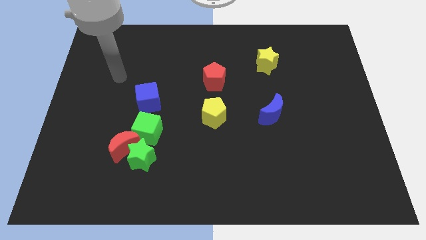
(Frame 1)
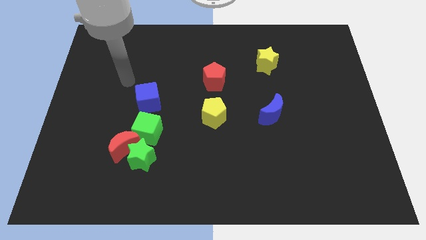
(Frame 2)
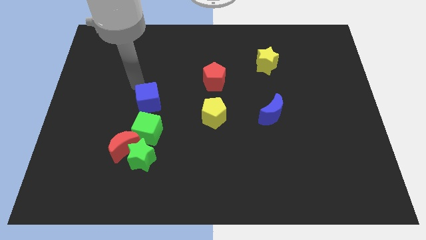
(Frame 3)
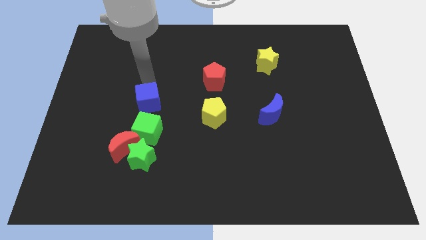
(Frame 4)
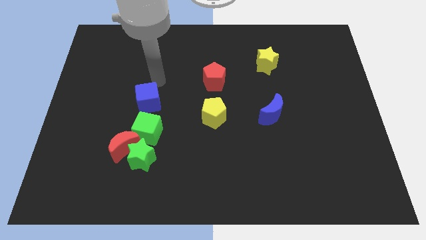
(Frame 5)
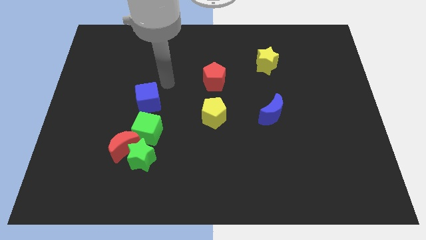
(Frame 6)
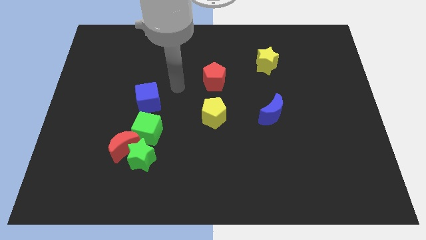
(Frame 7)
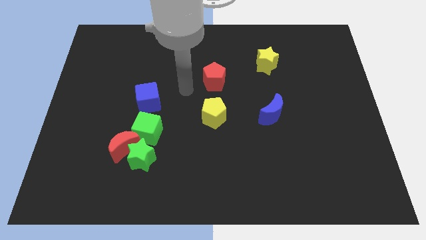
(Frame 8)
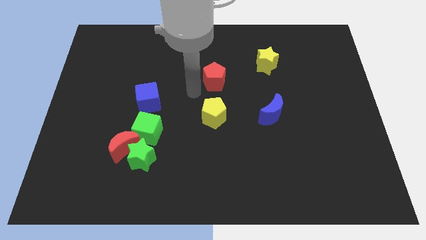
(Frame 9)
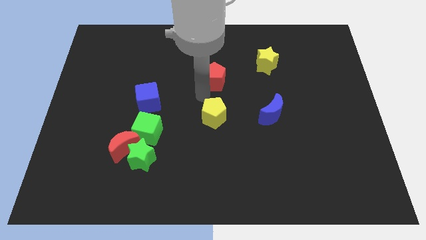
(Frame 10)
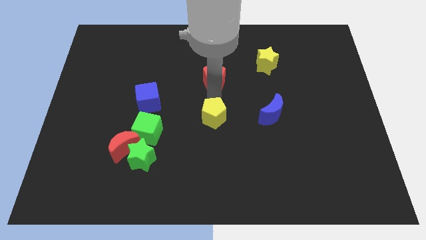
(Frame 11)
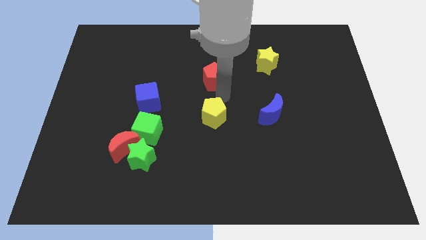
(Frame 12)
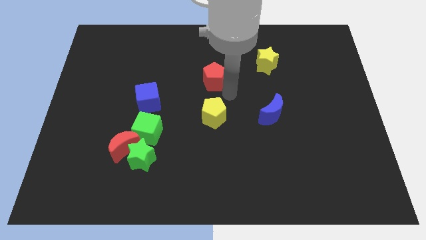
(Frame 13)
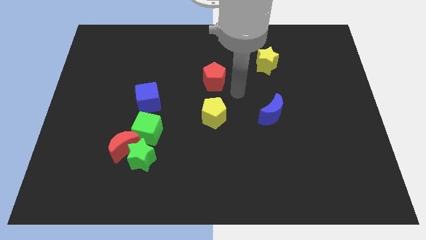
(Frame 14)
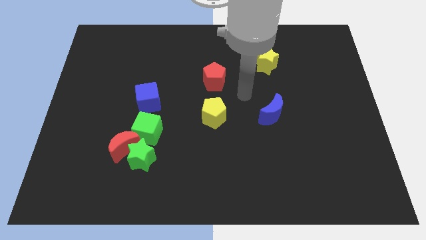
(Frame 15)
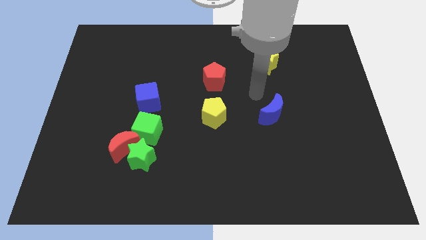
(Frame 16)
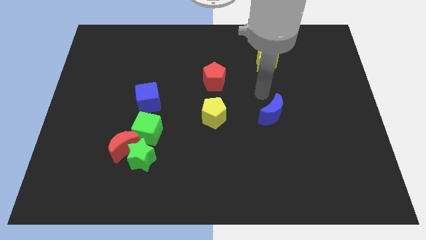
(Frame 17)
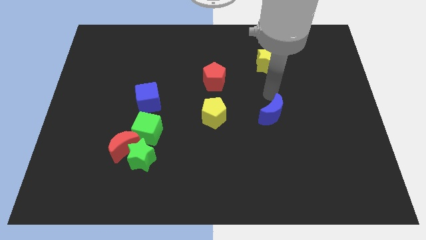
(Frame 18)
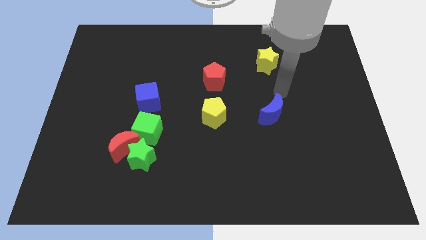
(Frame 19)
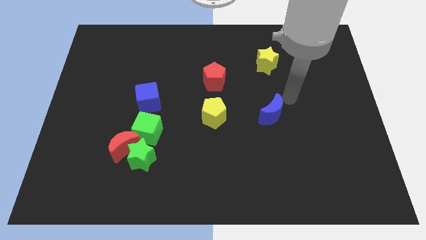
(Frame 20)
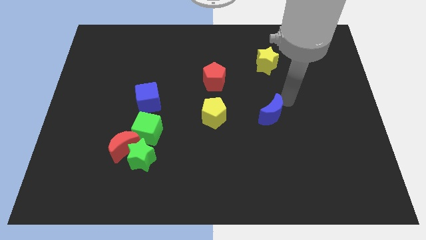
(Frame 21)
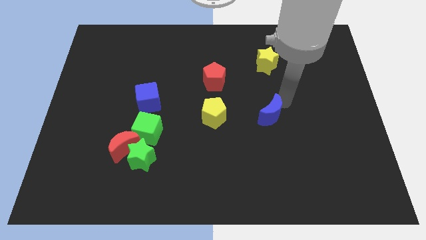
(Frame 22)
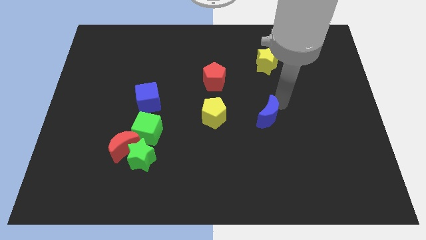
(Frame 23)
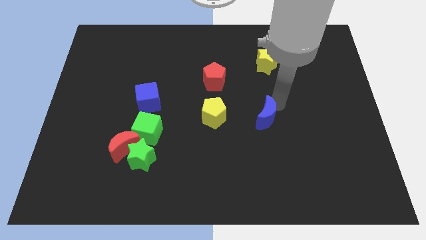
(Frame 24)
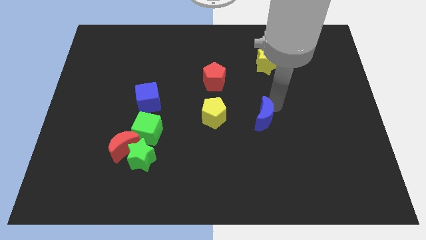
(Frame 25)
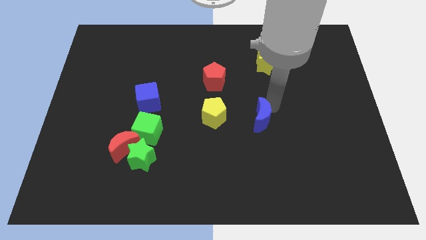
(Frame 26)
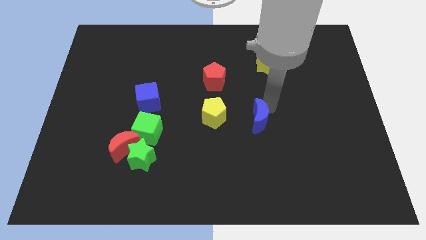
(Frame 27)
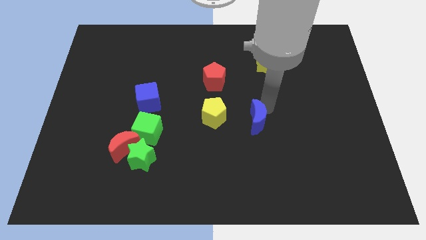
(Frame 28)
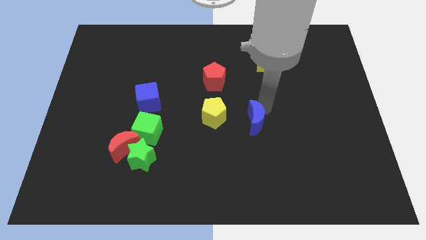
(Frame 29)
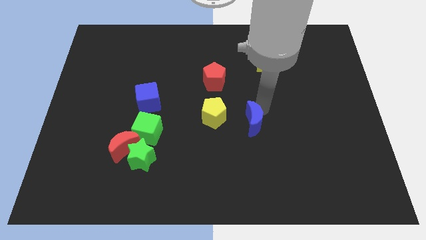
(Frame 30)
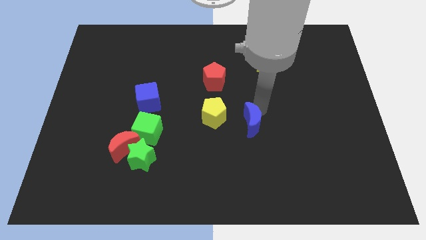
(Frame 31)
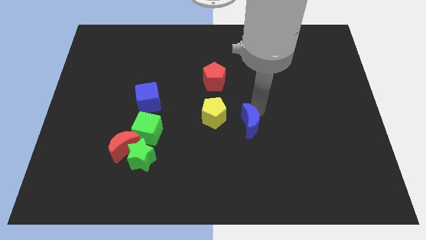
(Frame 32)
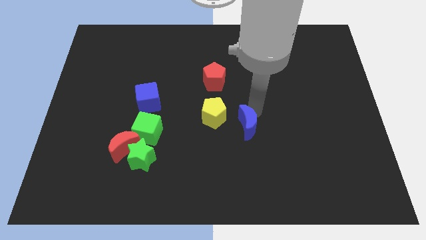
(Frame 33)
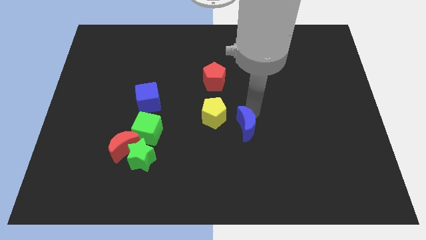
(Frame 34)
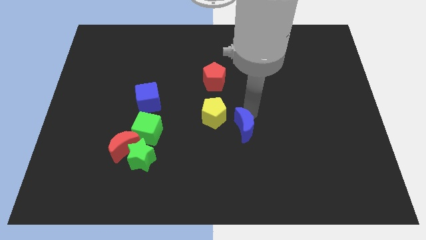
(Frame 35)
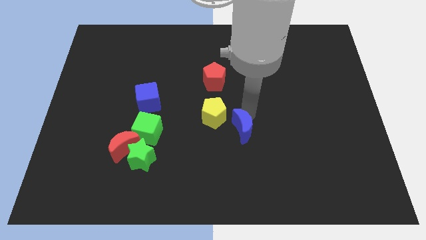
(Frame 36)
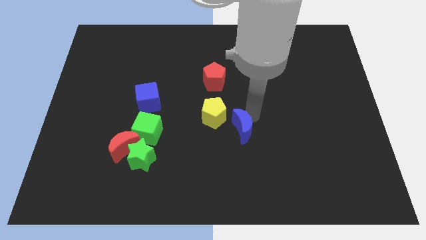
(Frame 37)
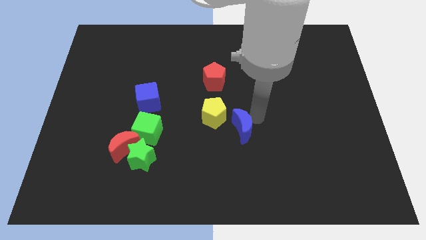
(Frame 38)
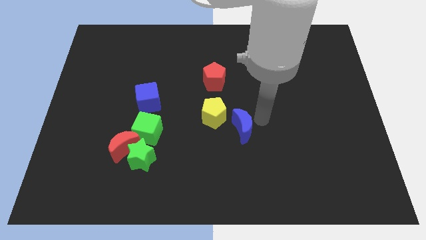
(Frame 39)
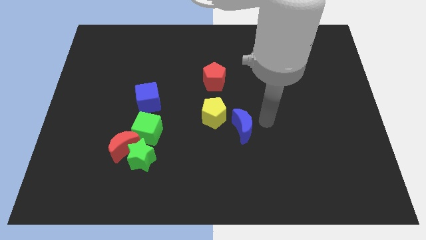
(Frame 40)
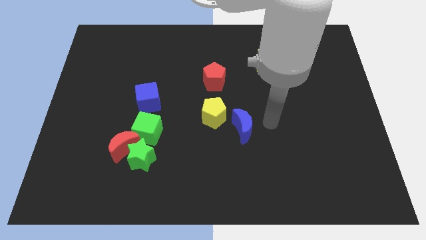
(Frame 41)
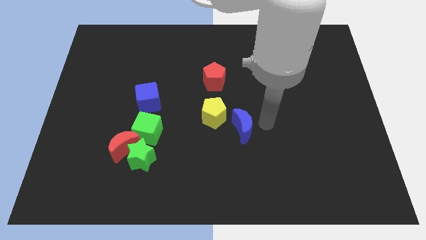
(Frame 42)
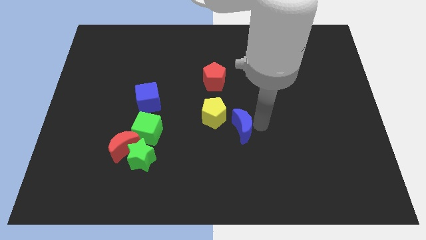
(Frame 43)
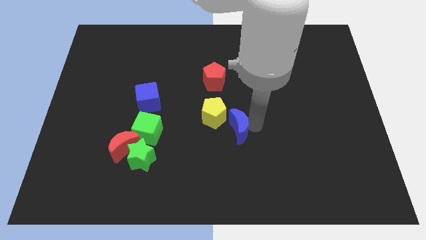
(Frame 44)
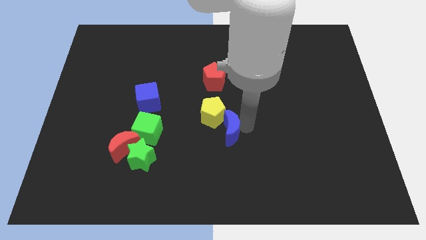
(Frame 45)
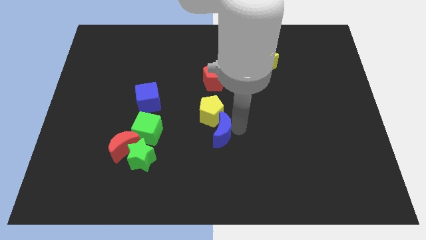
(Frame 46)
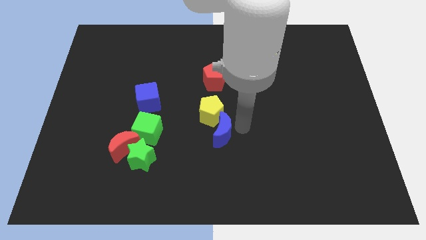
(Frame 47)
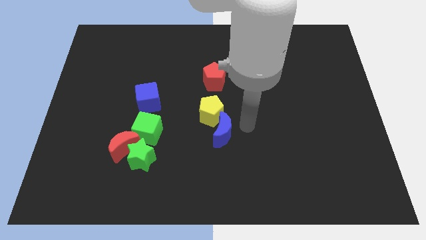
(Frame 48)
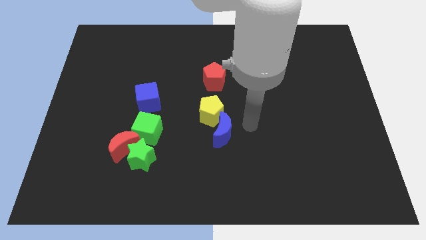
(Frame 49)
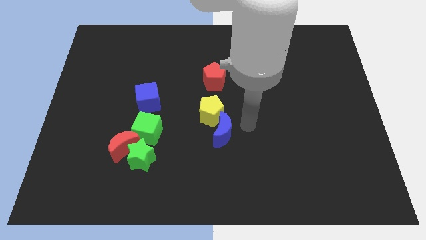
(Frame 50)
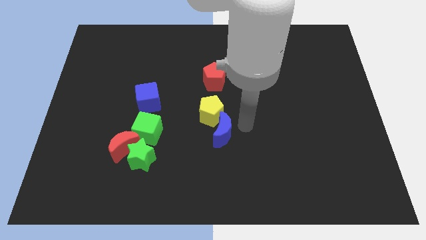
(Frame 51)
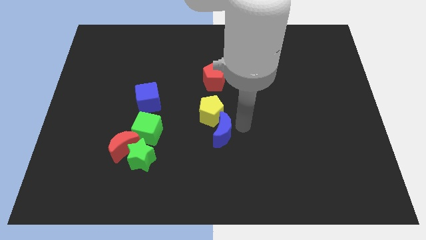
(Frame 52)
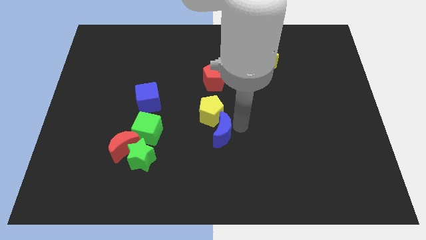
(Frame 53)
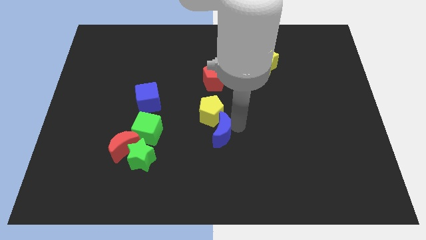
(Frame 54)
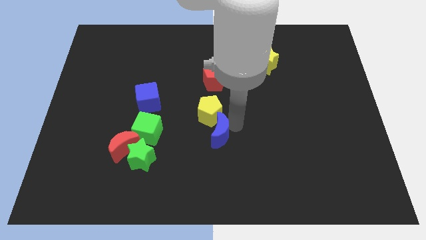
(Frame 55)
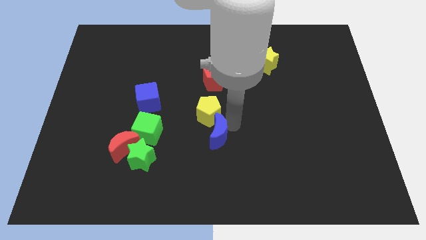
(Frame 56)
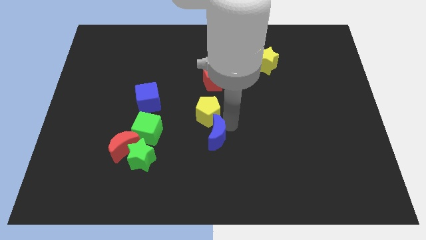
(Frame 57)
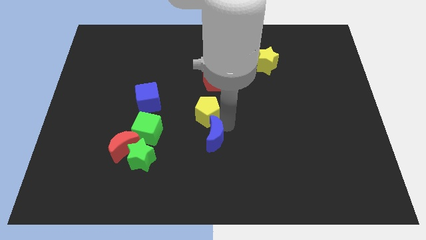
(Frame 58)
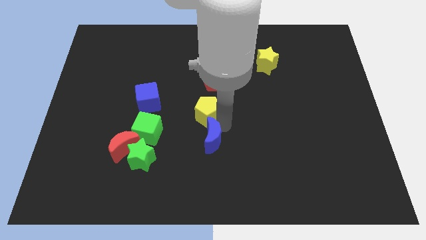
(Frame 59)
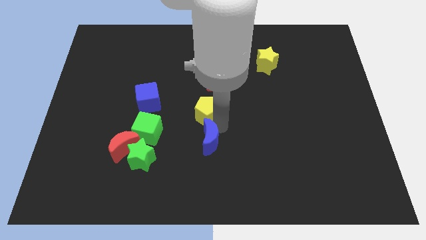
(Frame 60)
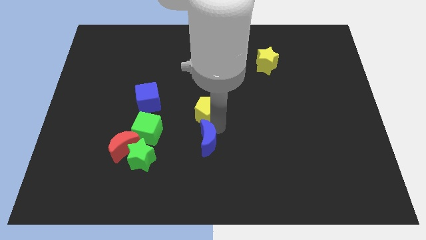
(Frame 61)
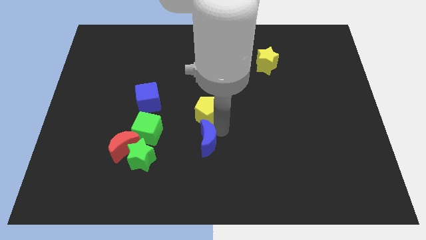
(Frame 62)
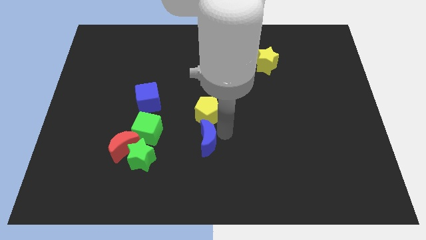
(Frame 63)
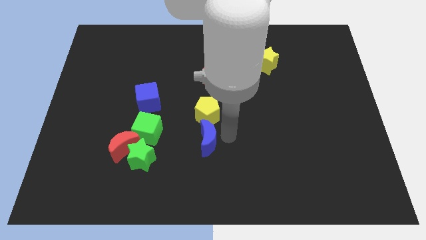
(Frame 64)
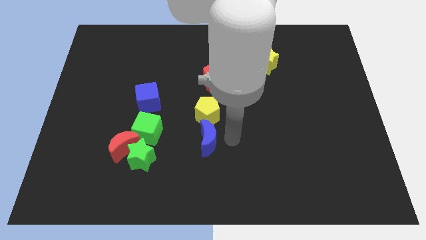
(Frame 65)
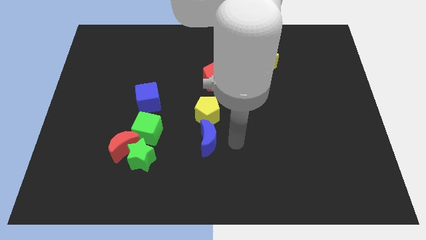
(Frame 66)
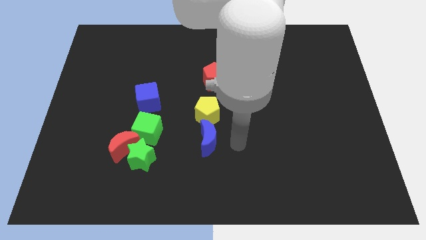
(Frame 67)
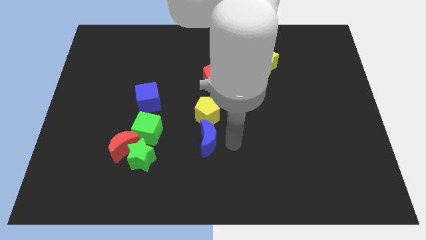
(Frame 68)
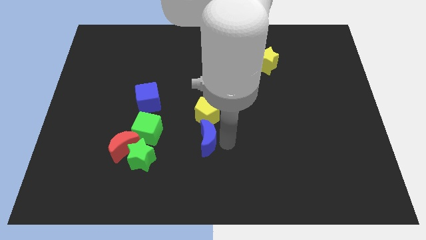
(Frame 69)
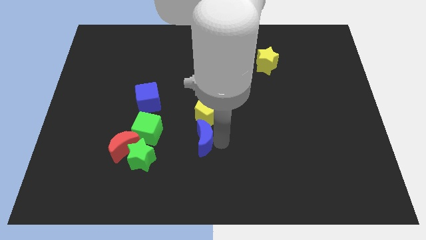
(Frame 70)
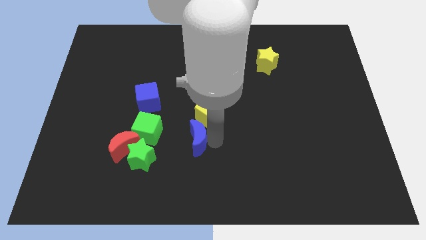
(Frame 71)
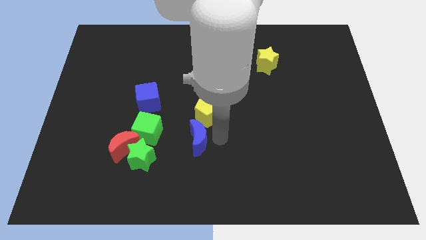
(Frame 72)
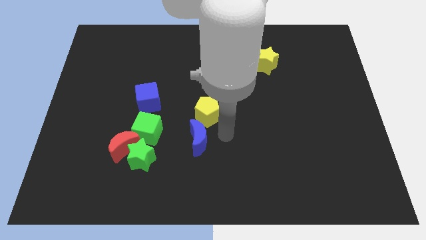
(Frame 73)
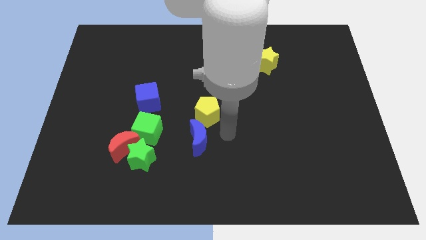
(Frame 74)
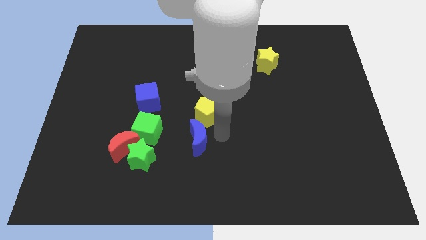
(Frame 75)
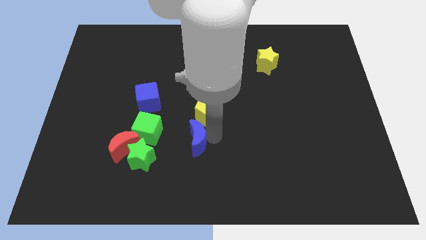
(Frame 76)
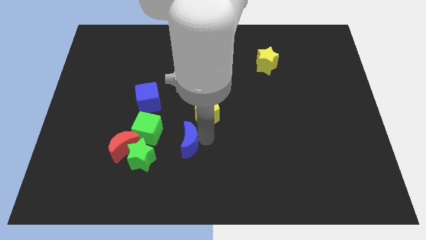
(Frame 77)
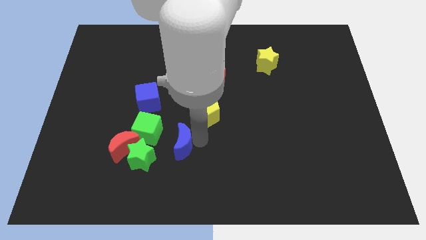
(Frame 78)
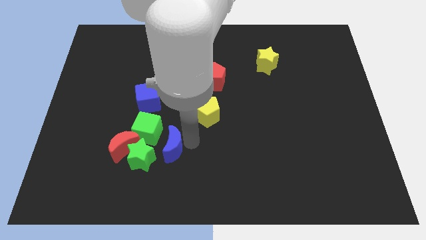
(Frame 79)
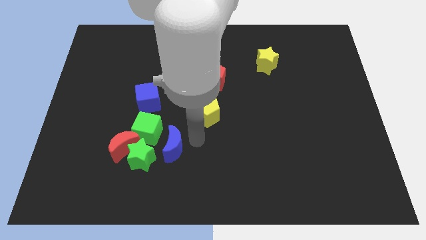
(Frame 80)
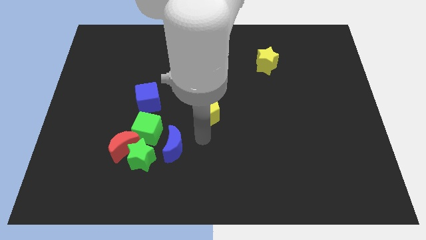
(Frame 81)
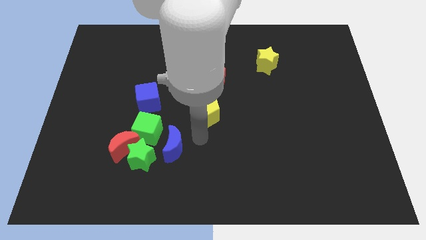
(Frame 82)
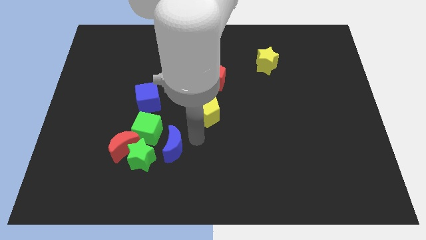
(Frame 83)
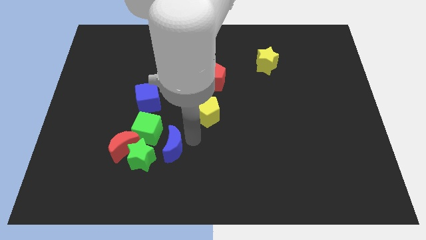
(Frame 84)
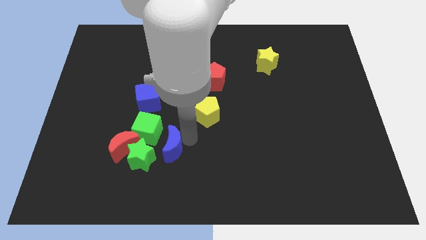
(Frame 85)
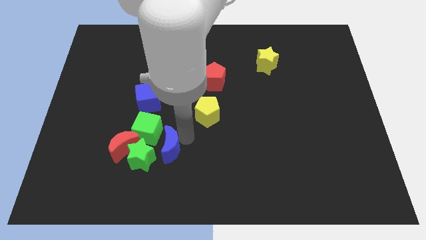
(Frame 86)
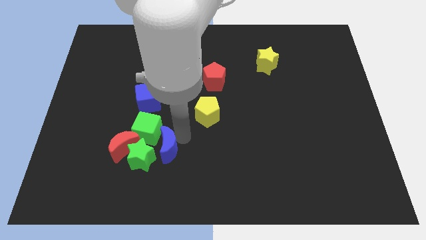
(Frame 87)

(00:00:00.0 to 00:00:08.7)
move the blue moon next to the green star
